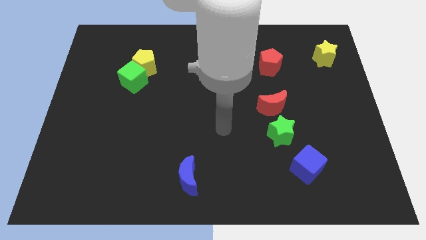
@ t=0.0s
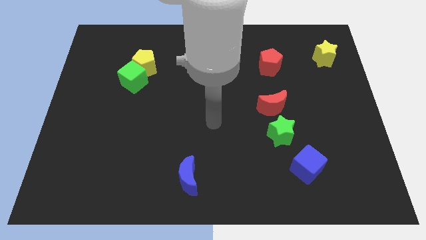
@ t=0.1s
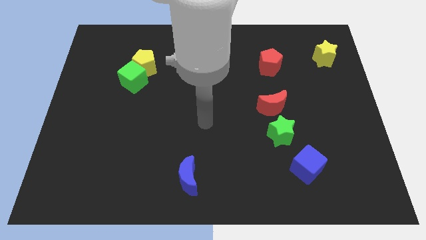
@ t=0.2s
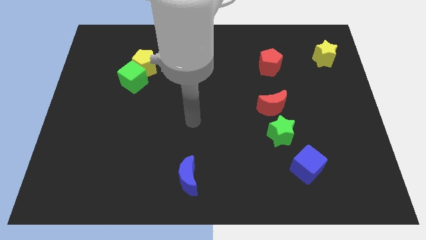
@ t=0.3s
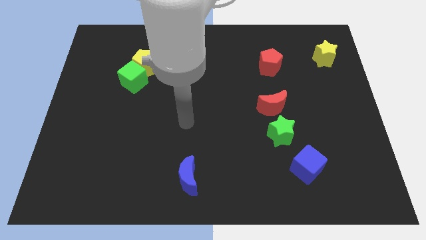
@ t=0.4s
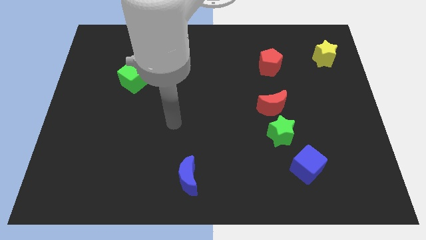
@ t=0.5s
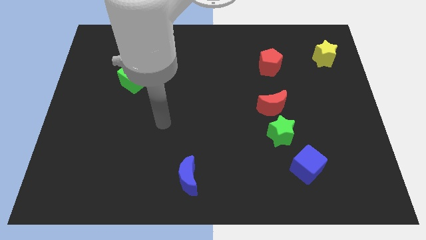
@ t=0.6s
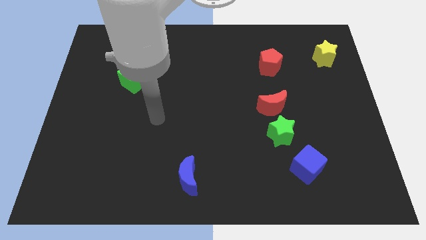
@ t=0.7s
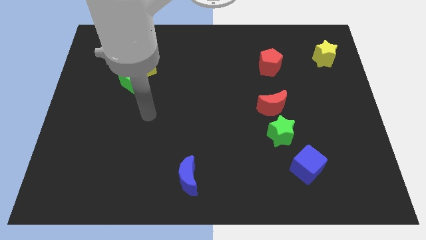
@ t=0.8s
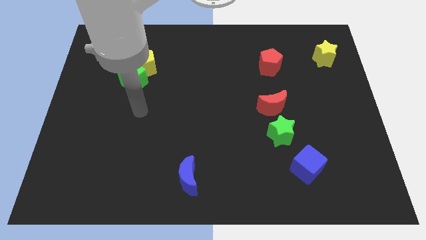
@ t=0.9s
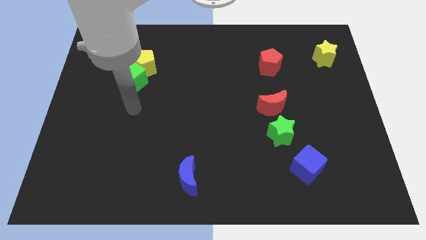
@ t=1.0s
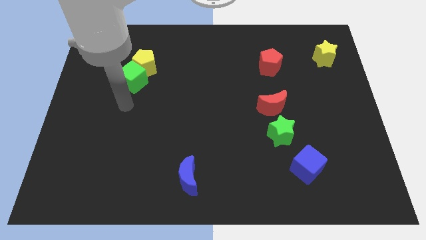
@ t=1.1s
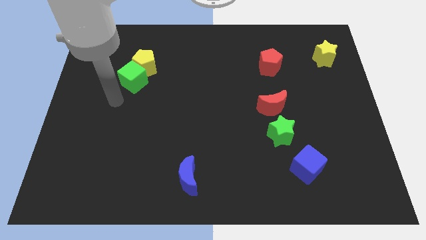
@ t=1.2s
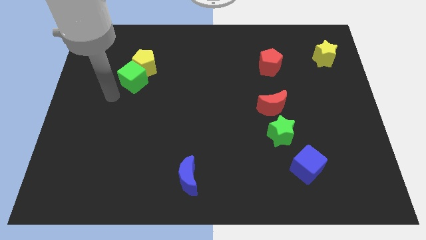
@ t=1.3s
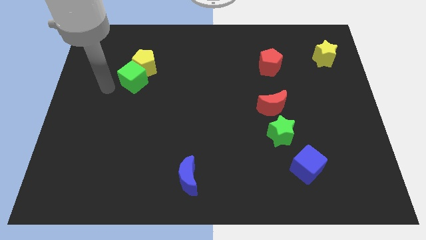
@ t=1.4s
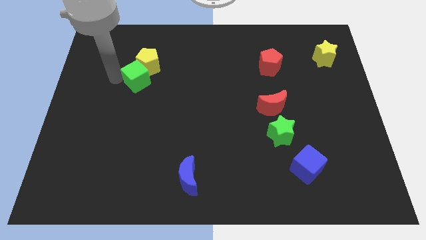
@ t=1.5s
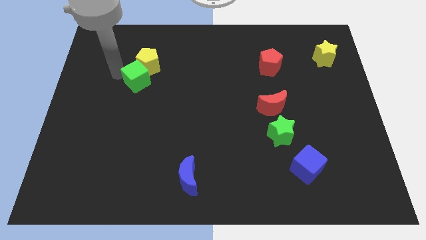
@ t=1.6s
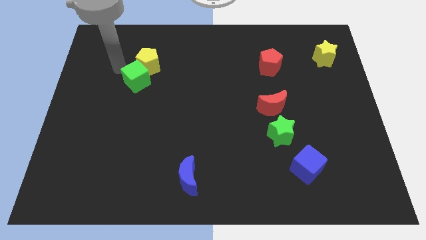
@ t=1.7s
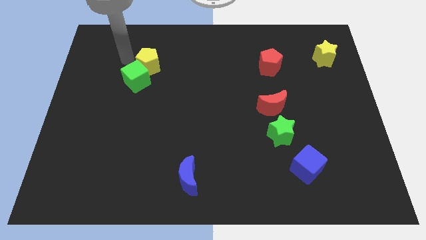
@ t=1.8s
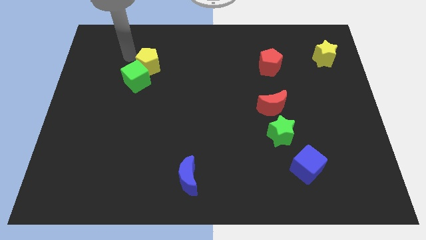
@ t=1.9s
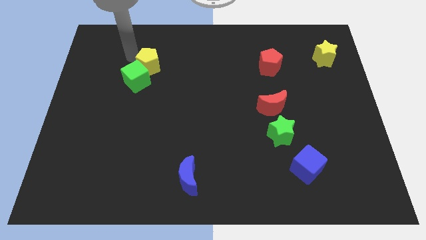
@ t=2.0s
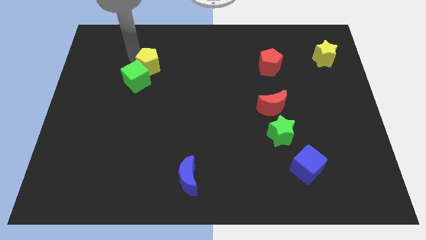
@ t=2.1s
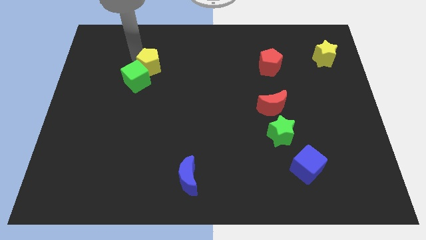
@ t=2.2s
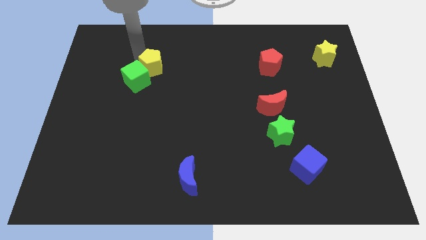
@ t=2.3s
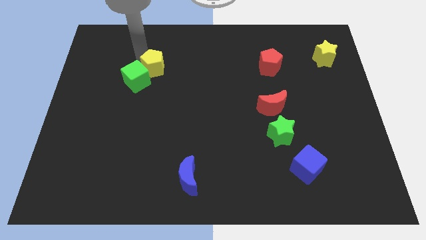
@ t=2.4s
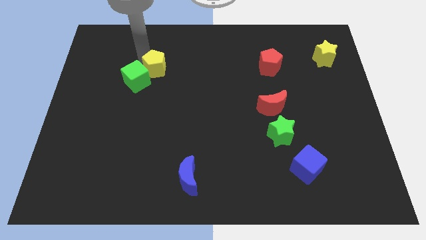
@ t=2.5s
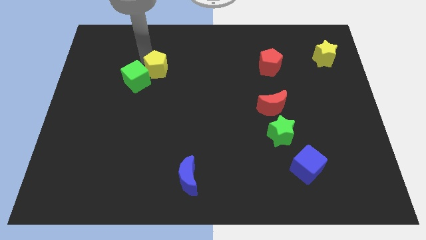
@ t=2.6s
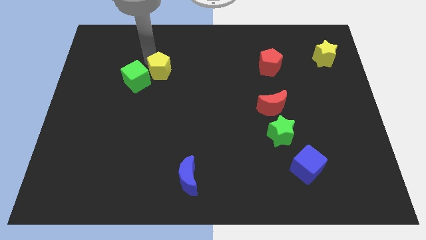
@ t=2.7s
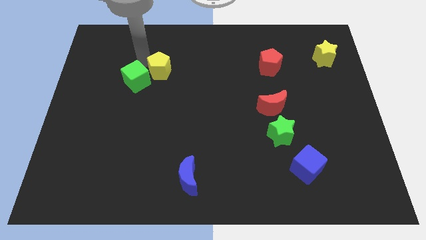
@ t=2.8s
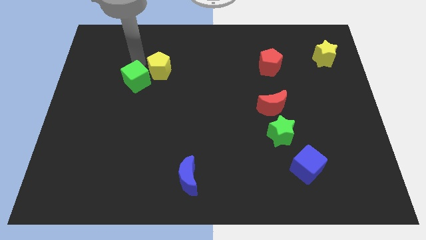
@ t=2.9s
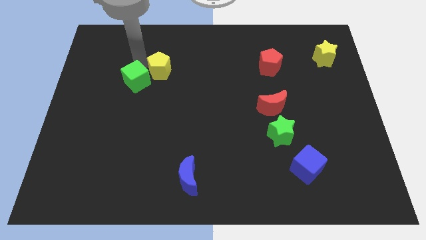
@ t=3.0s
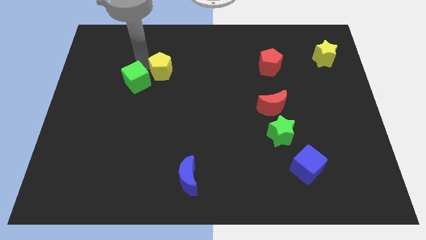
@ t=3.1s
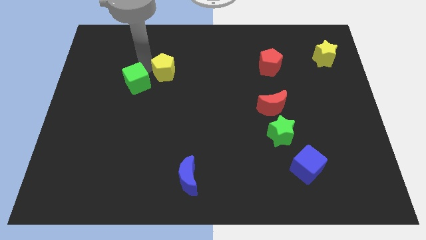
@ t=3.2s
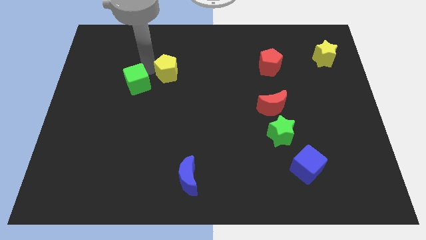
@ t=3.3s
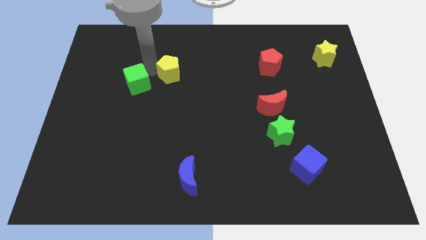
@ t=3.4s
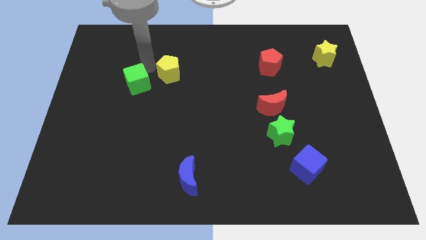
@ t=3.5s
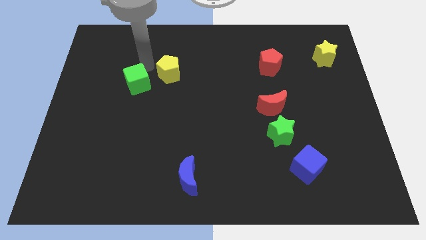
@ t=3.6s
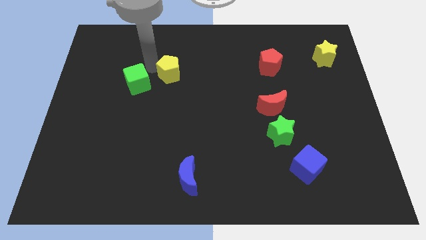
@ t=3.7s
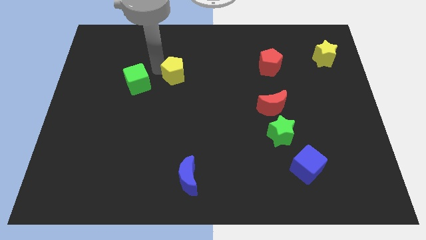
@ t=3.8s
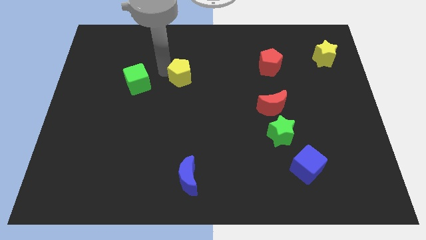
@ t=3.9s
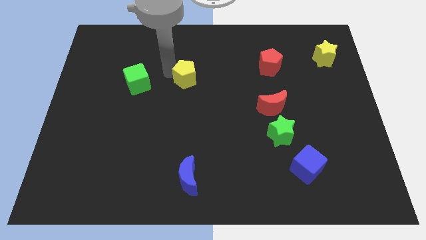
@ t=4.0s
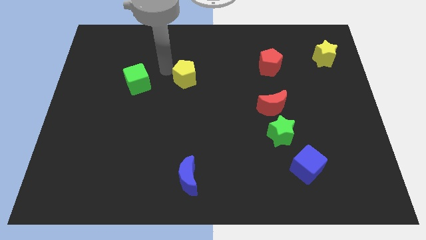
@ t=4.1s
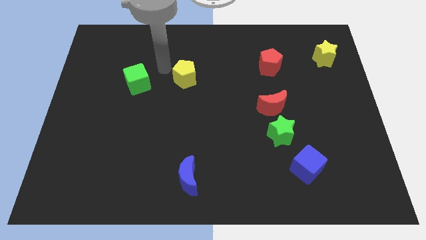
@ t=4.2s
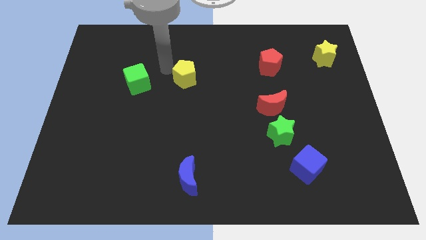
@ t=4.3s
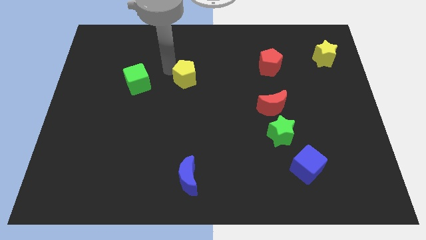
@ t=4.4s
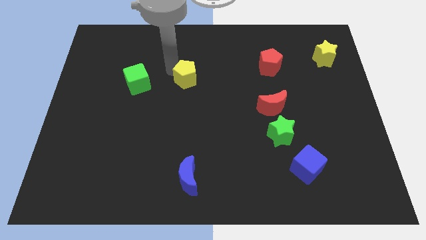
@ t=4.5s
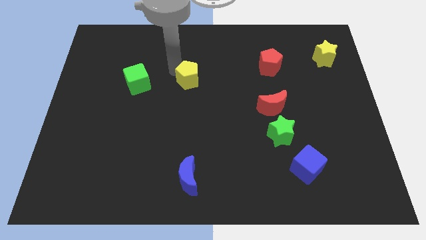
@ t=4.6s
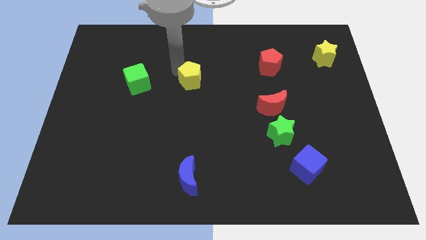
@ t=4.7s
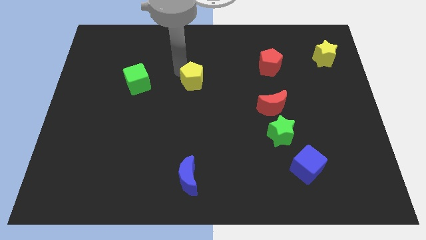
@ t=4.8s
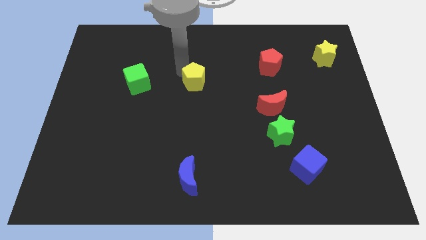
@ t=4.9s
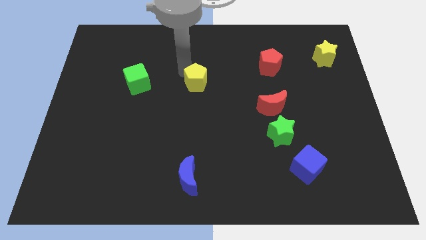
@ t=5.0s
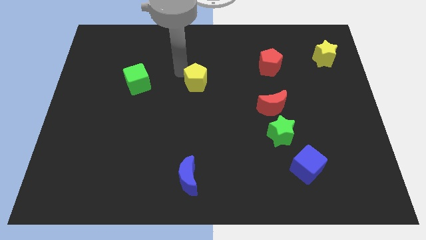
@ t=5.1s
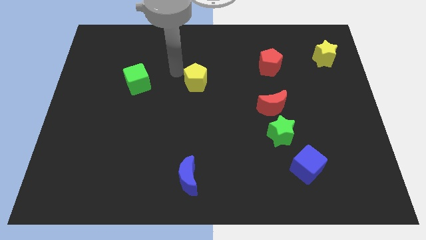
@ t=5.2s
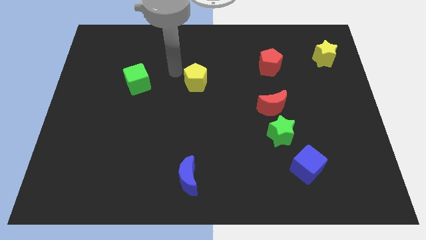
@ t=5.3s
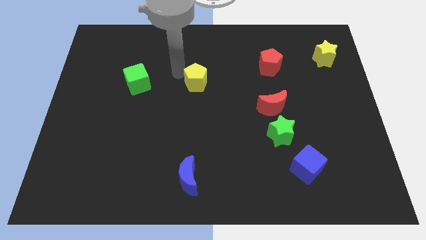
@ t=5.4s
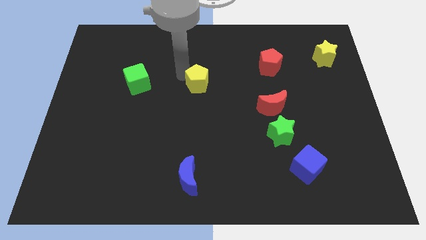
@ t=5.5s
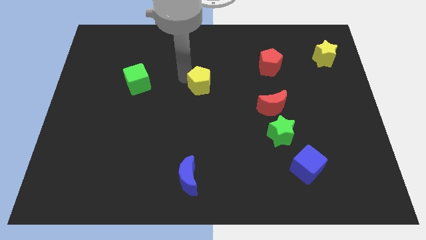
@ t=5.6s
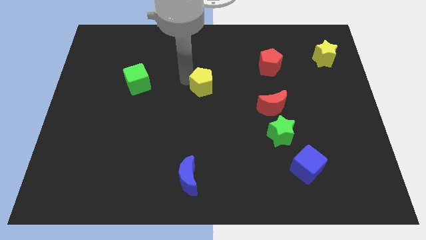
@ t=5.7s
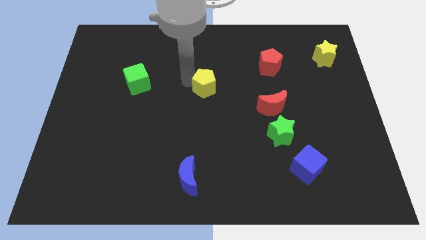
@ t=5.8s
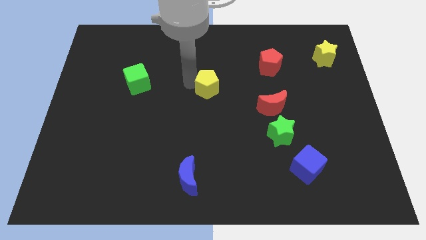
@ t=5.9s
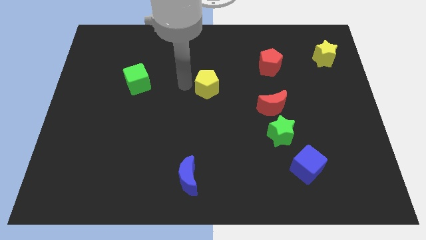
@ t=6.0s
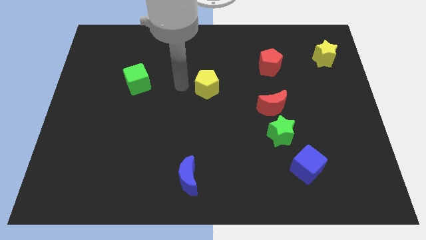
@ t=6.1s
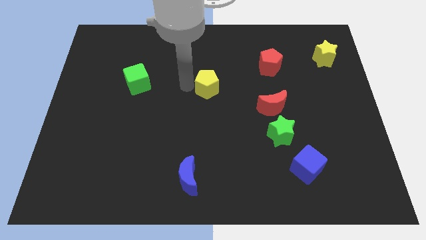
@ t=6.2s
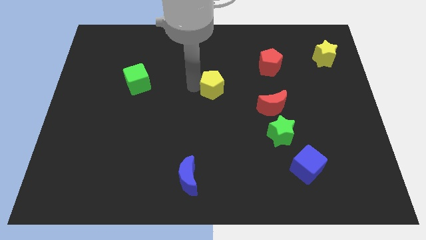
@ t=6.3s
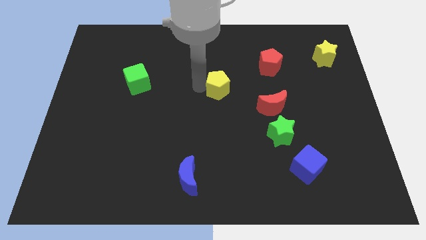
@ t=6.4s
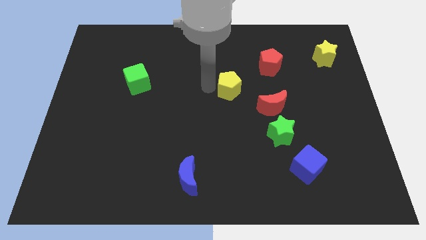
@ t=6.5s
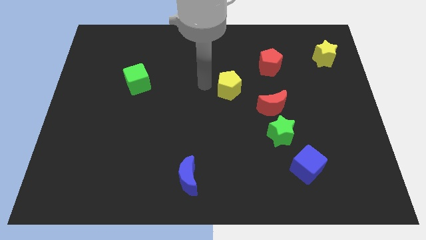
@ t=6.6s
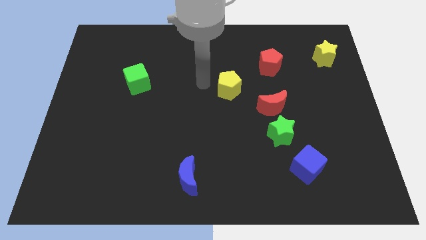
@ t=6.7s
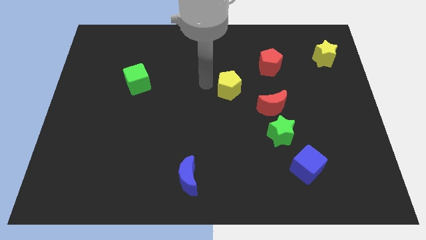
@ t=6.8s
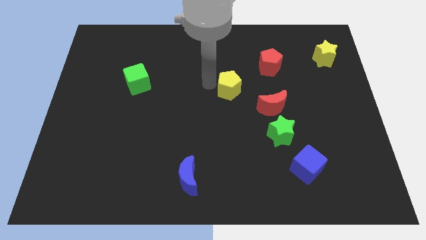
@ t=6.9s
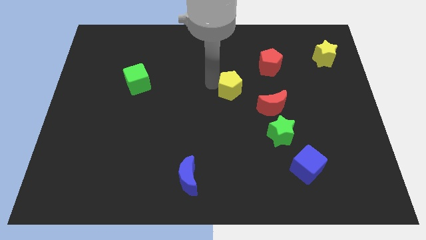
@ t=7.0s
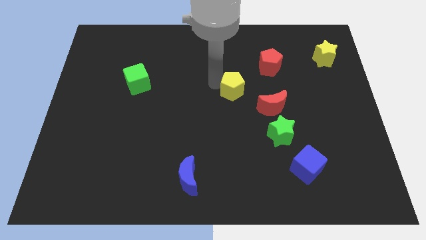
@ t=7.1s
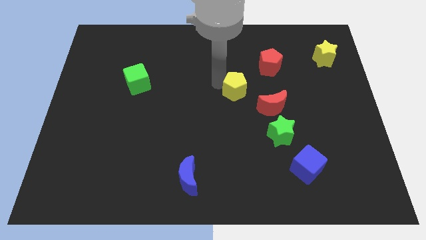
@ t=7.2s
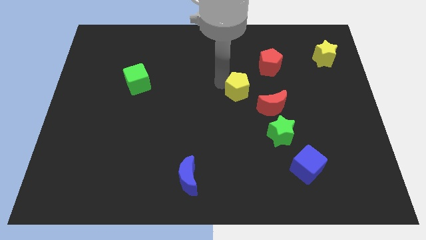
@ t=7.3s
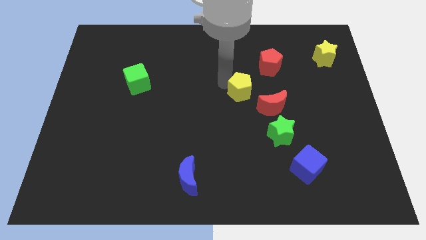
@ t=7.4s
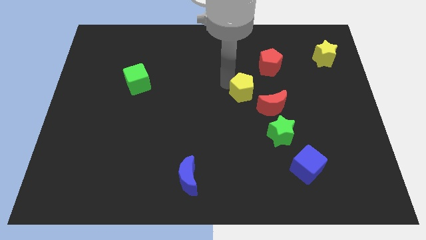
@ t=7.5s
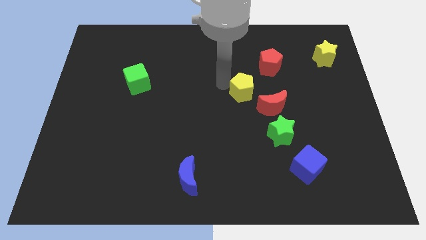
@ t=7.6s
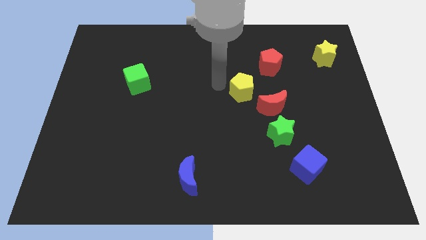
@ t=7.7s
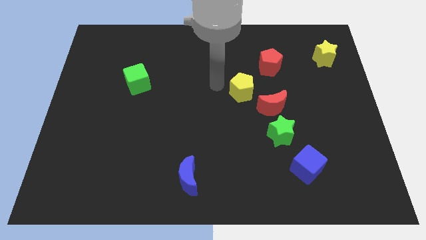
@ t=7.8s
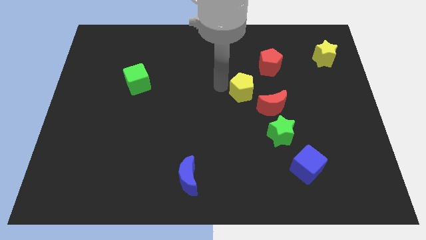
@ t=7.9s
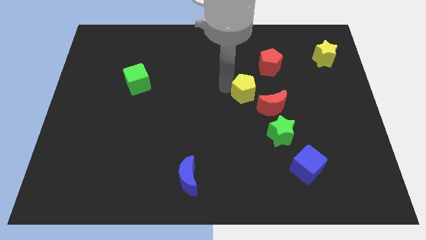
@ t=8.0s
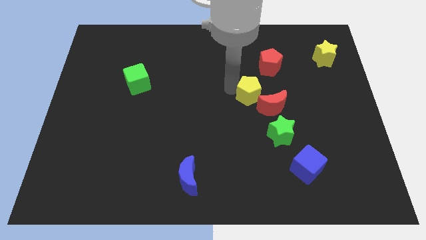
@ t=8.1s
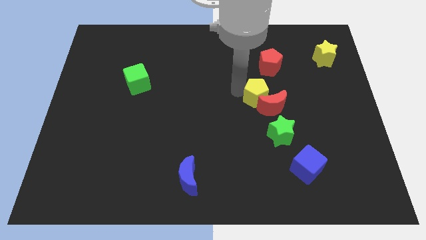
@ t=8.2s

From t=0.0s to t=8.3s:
move the yellow pentagon to the top side of the green star
